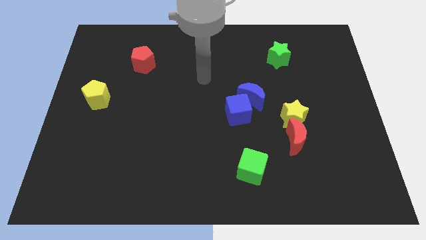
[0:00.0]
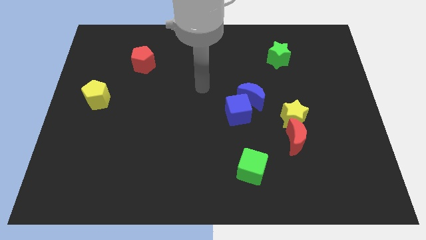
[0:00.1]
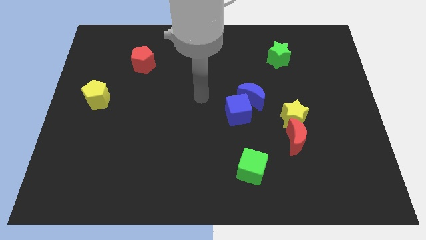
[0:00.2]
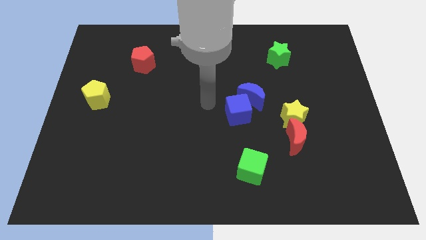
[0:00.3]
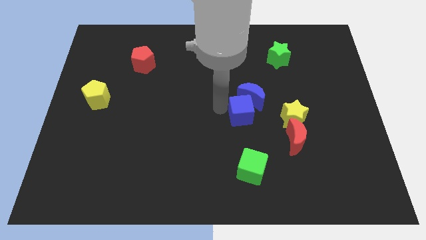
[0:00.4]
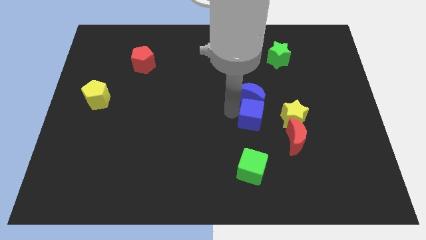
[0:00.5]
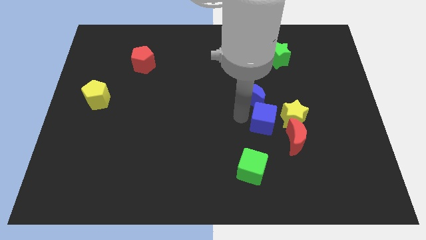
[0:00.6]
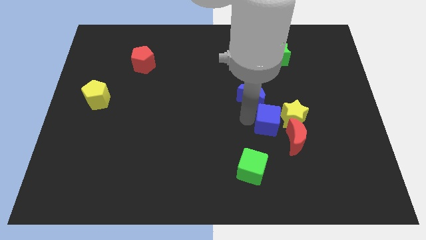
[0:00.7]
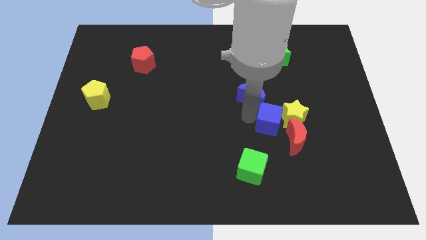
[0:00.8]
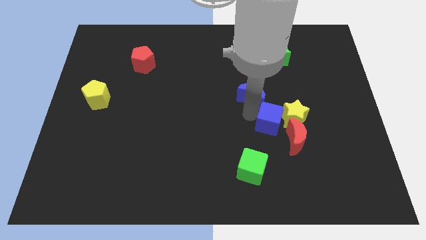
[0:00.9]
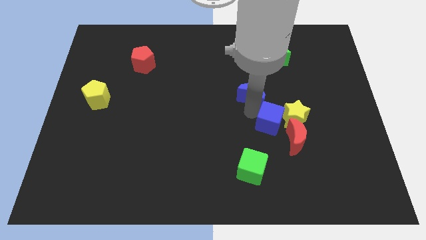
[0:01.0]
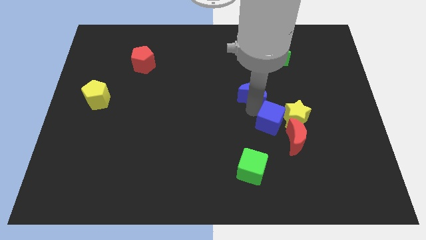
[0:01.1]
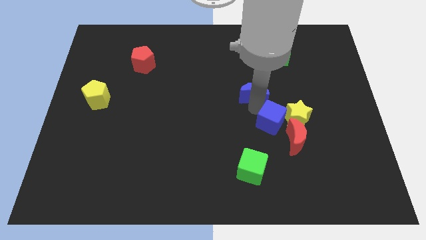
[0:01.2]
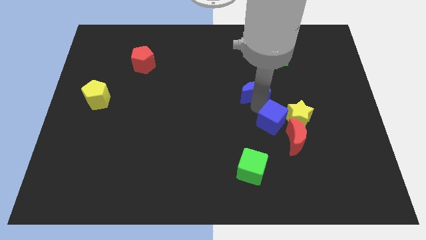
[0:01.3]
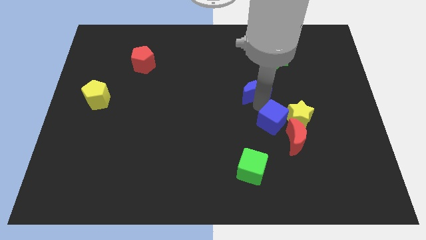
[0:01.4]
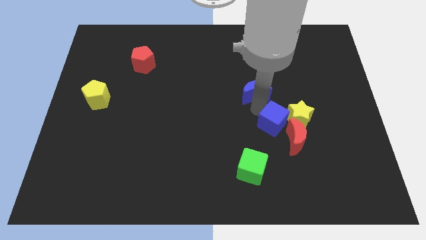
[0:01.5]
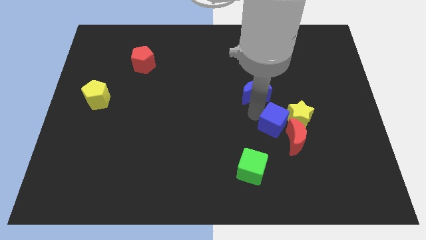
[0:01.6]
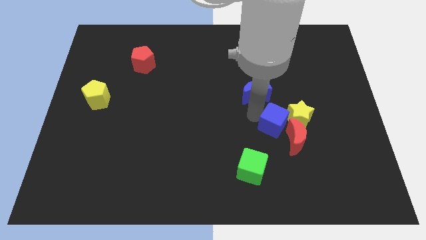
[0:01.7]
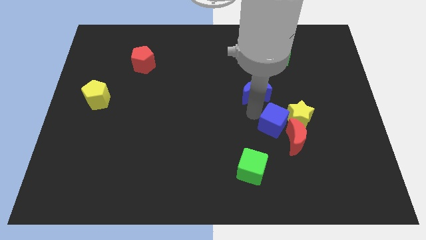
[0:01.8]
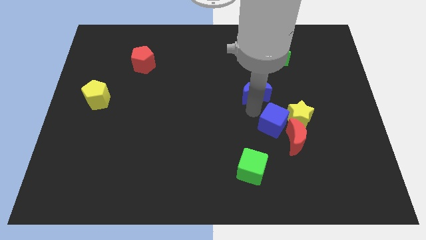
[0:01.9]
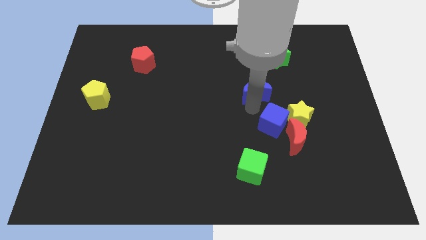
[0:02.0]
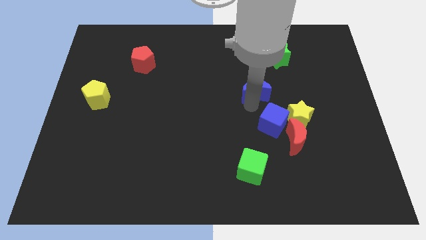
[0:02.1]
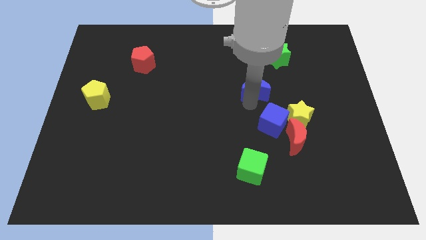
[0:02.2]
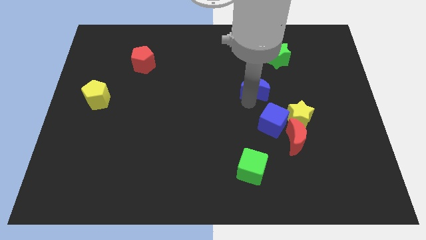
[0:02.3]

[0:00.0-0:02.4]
pull the blue moon apart from the blue cube

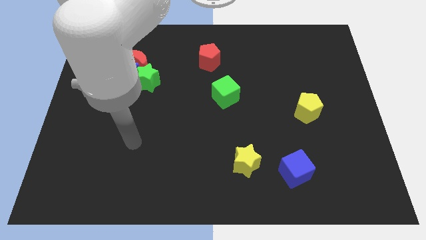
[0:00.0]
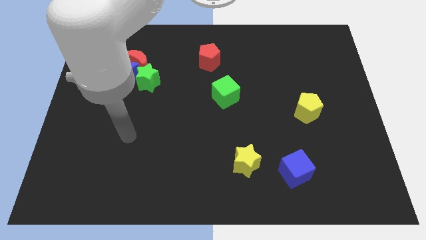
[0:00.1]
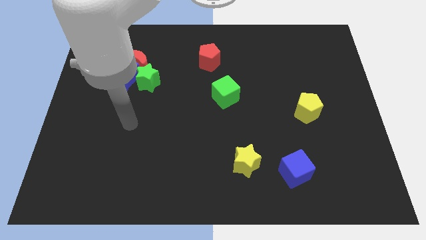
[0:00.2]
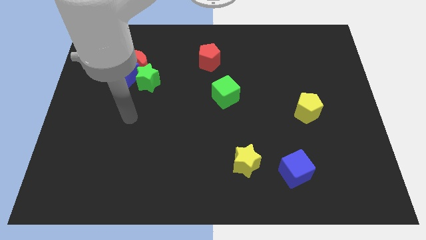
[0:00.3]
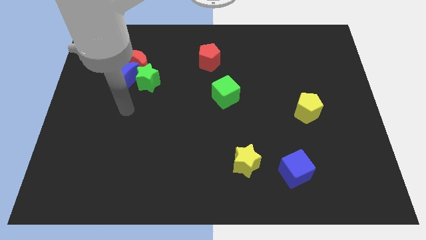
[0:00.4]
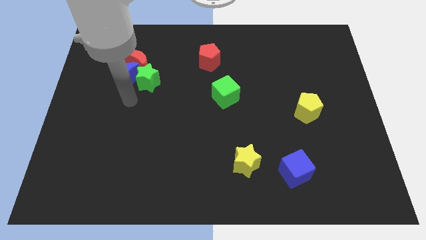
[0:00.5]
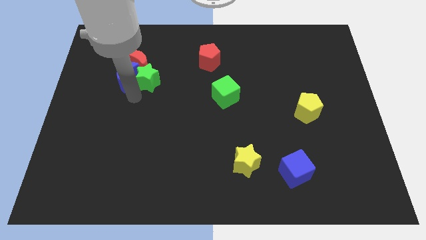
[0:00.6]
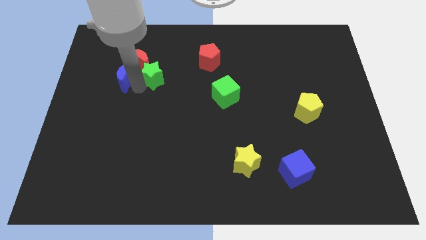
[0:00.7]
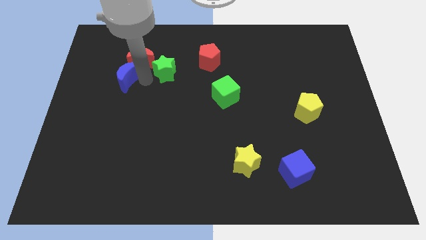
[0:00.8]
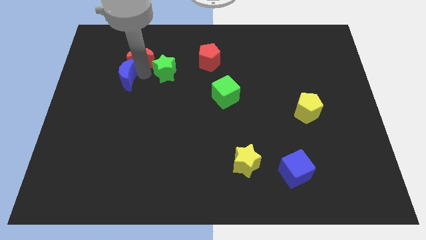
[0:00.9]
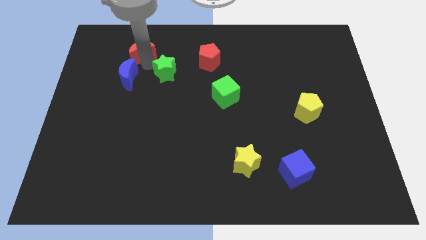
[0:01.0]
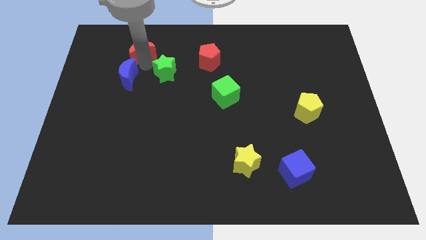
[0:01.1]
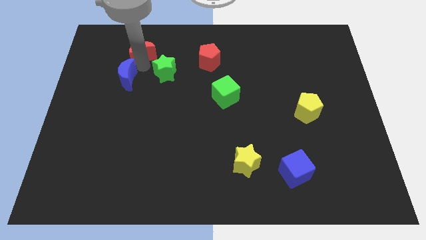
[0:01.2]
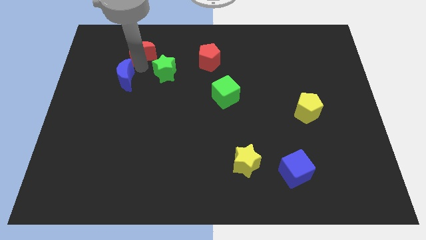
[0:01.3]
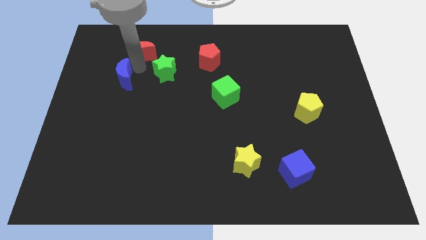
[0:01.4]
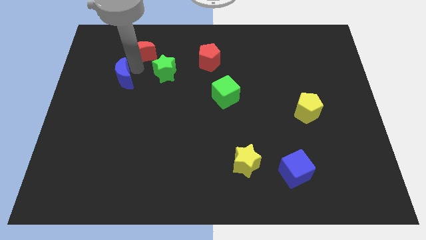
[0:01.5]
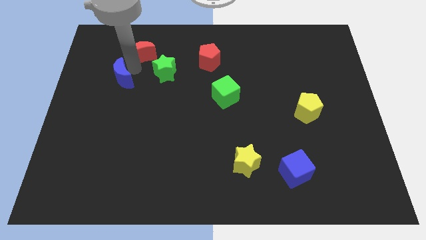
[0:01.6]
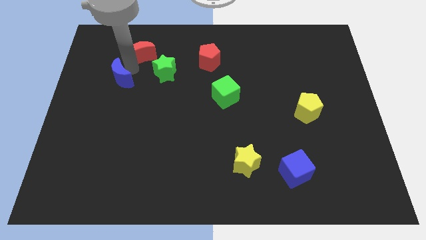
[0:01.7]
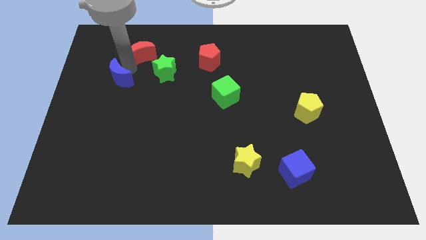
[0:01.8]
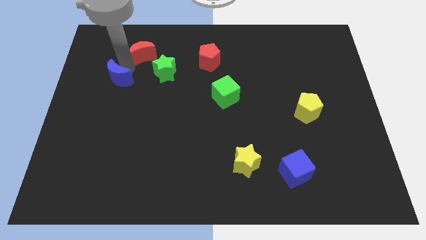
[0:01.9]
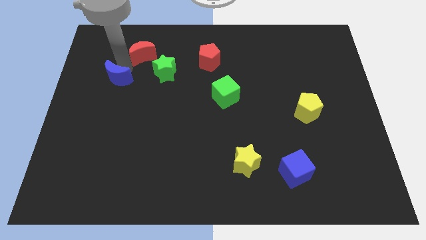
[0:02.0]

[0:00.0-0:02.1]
separate the blue moon from the green star and red moon

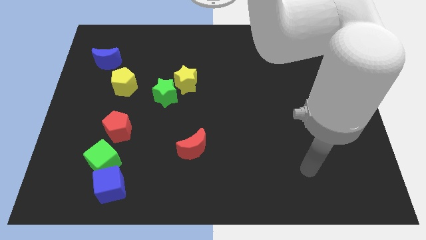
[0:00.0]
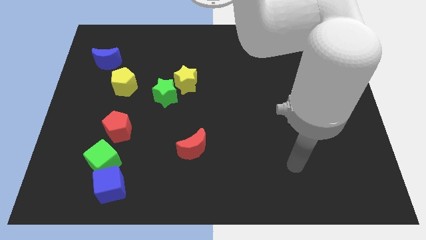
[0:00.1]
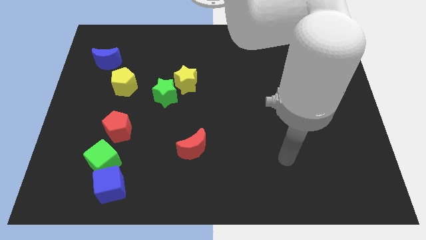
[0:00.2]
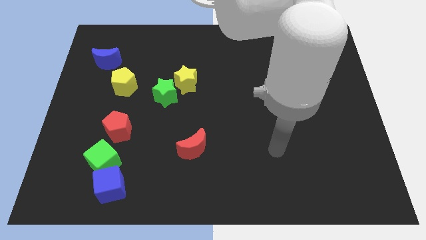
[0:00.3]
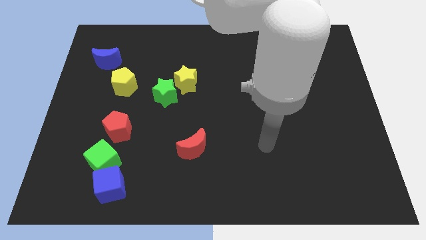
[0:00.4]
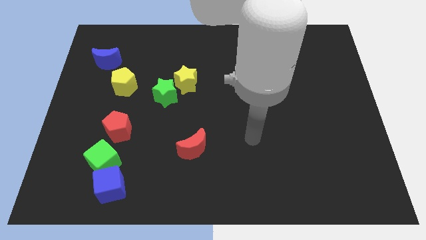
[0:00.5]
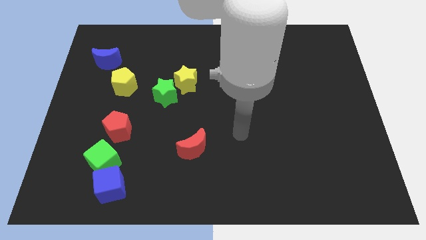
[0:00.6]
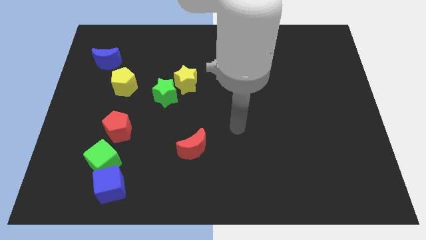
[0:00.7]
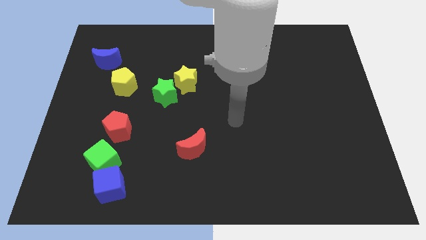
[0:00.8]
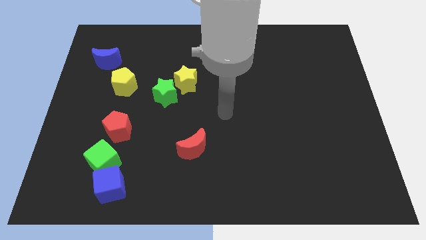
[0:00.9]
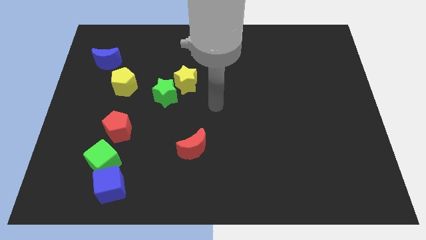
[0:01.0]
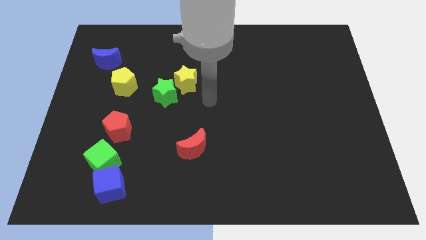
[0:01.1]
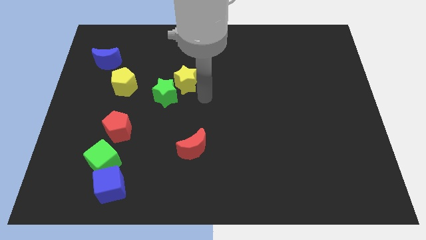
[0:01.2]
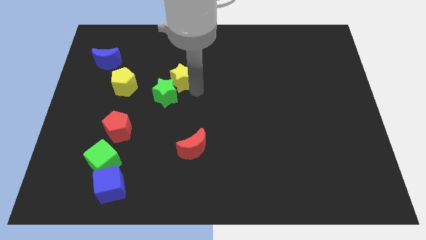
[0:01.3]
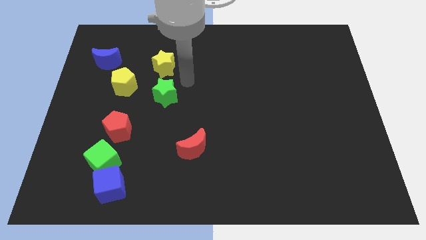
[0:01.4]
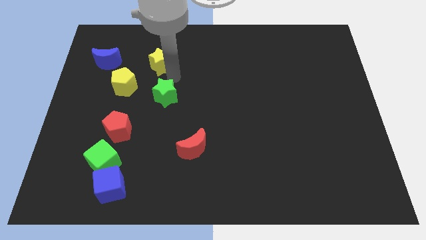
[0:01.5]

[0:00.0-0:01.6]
move the green star away from the yellow star

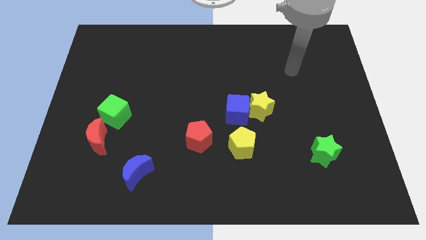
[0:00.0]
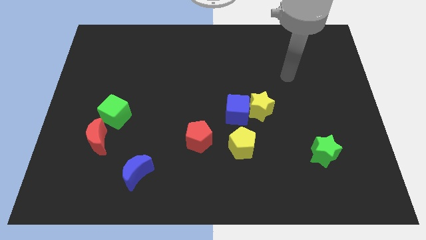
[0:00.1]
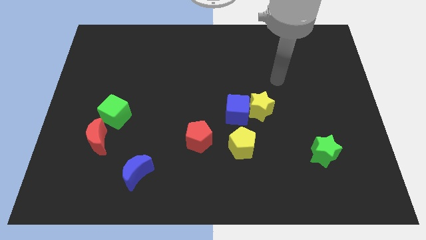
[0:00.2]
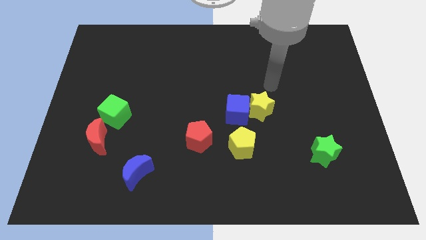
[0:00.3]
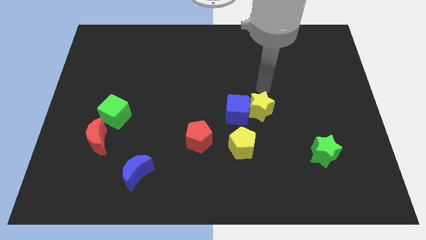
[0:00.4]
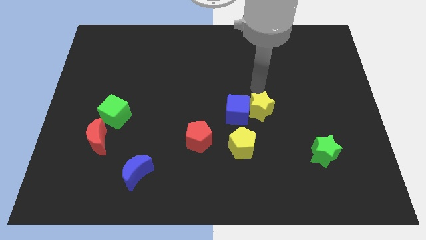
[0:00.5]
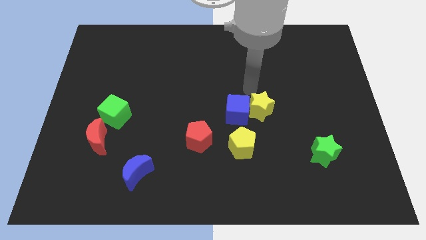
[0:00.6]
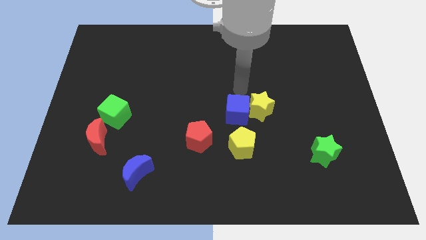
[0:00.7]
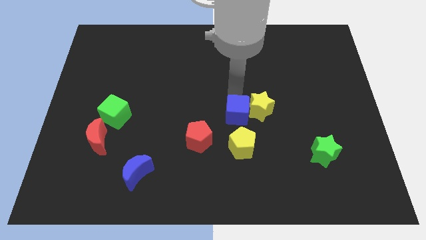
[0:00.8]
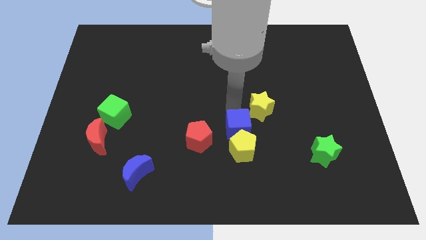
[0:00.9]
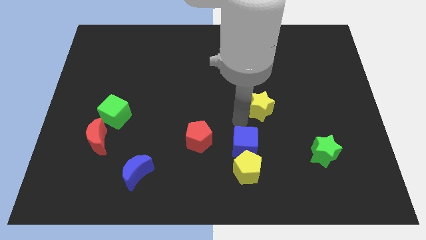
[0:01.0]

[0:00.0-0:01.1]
move the yellow star away from the blue cube

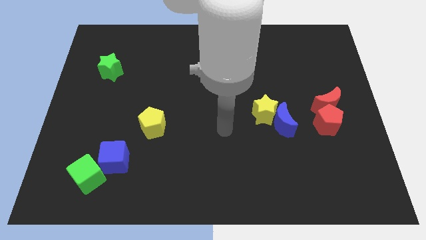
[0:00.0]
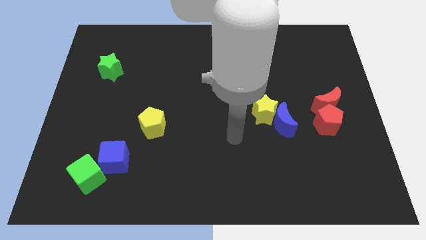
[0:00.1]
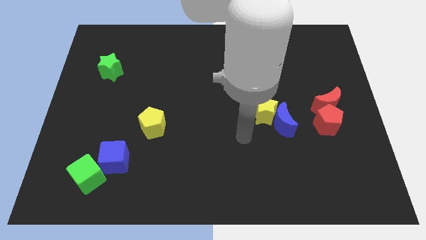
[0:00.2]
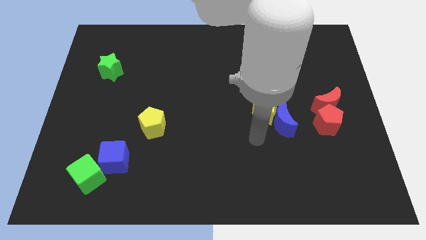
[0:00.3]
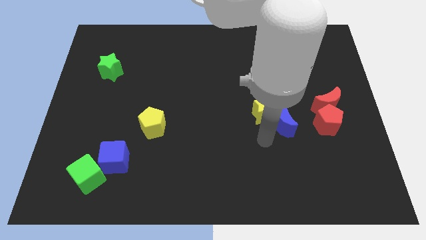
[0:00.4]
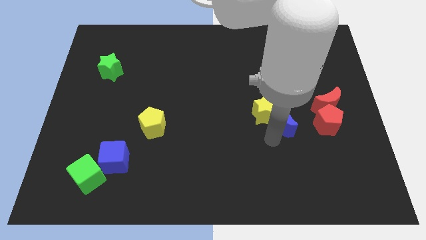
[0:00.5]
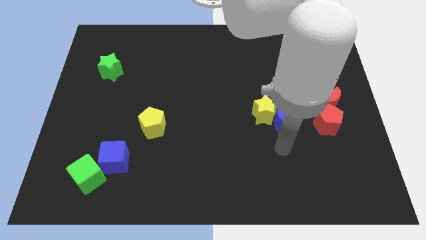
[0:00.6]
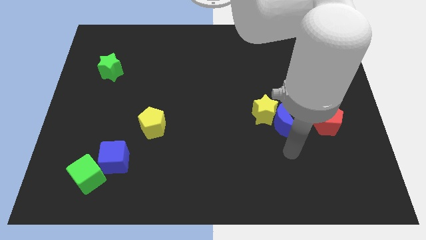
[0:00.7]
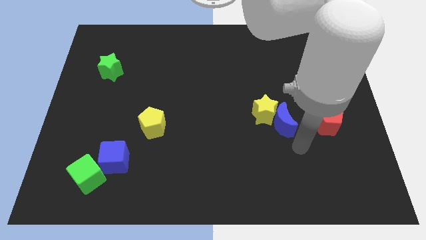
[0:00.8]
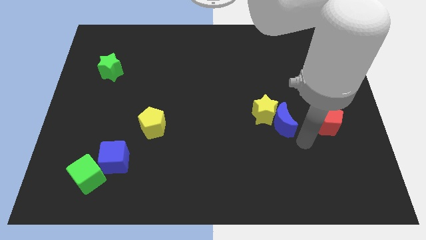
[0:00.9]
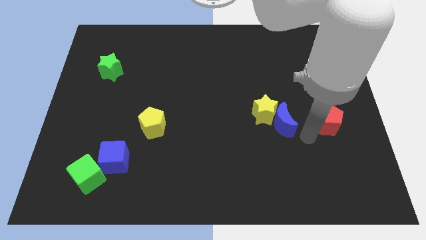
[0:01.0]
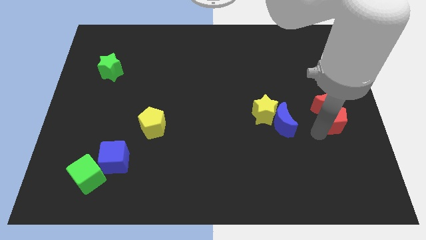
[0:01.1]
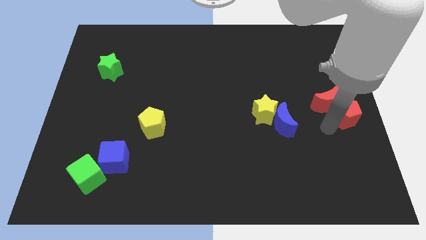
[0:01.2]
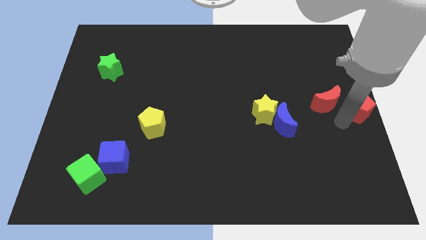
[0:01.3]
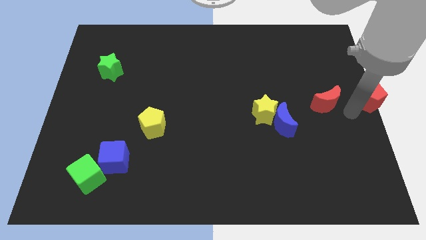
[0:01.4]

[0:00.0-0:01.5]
pull the red moon apart from the red pentagon

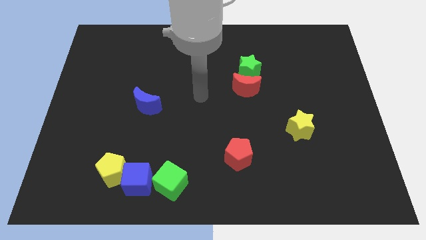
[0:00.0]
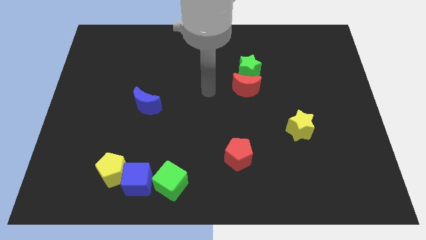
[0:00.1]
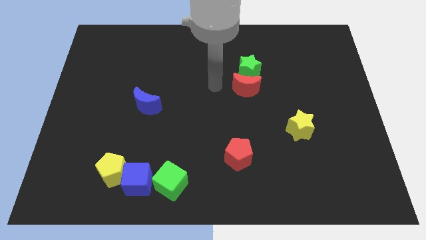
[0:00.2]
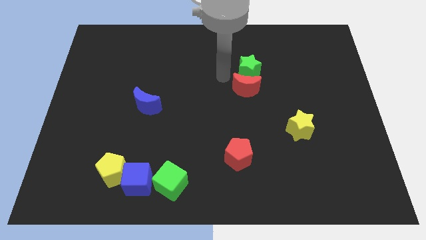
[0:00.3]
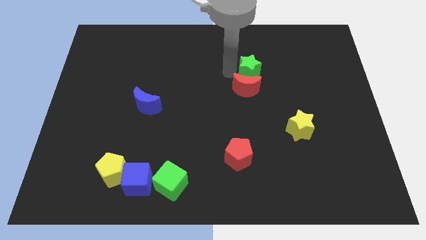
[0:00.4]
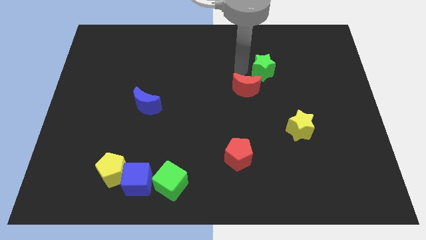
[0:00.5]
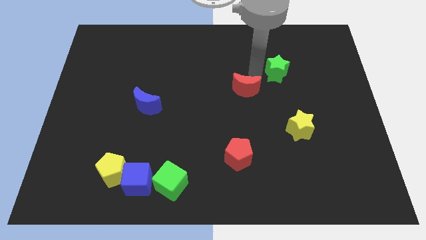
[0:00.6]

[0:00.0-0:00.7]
move the red moon away from the green star
